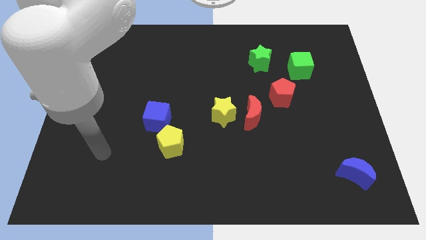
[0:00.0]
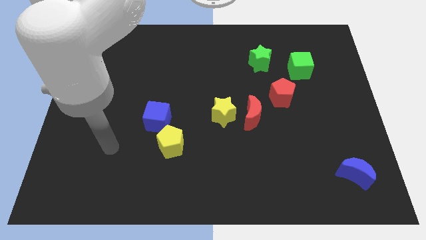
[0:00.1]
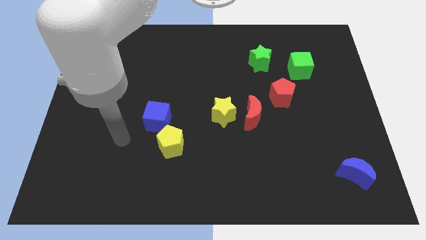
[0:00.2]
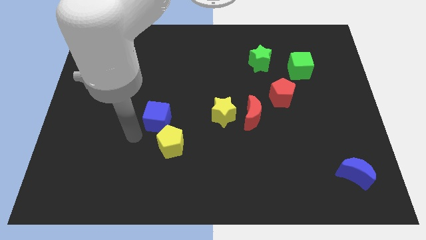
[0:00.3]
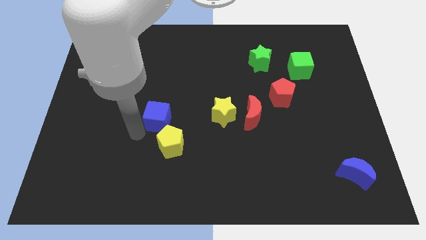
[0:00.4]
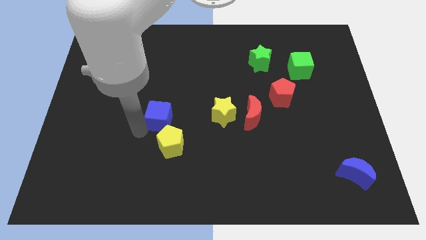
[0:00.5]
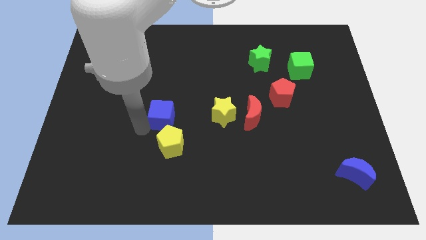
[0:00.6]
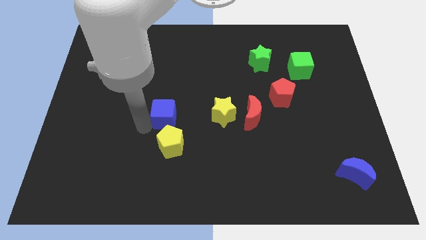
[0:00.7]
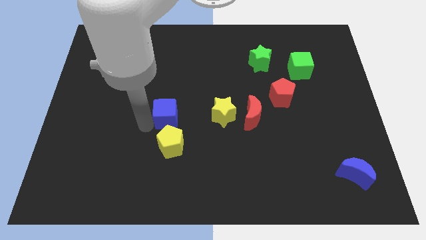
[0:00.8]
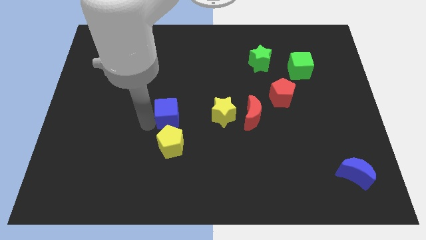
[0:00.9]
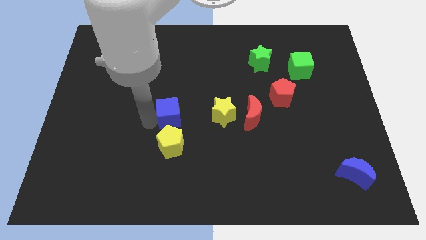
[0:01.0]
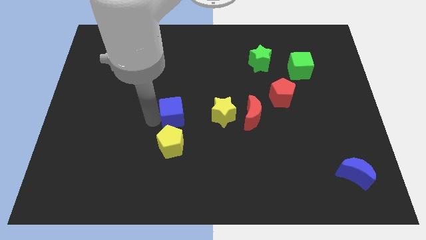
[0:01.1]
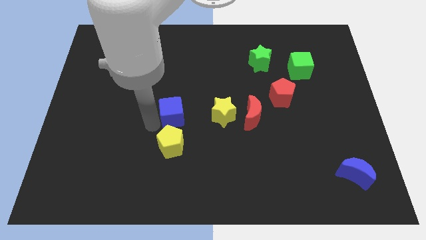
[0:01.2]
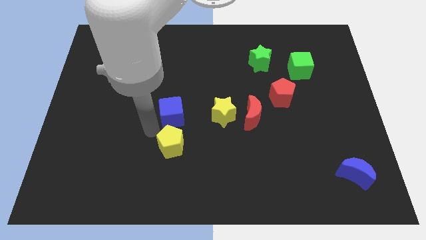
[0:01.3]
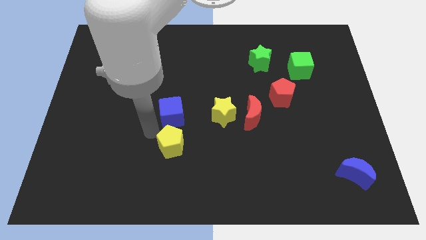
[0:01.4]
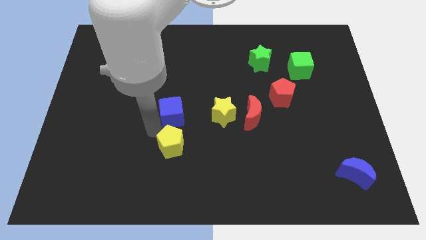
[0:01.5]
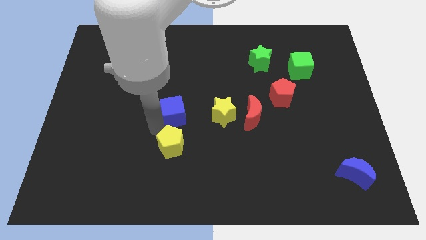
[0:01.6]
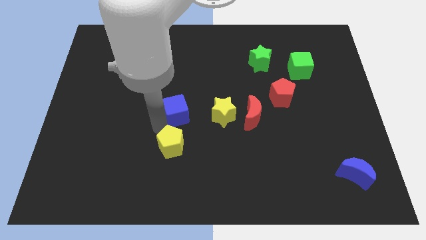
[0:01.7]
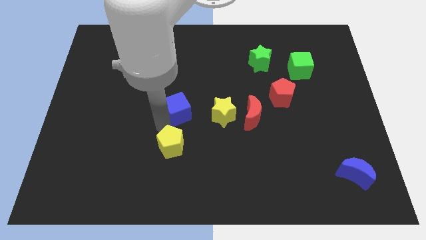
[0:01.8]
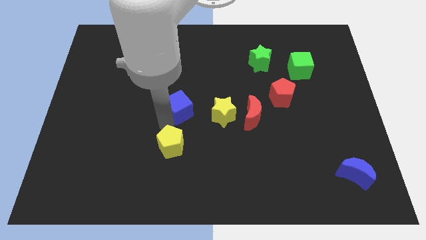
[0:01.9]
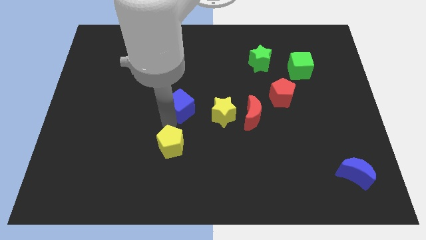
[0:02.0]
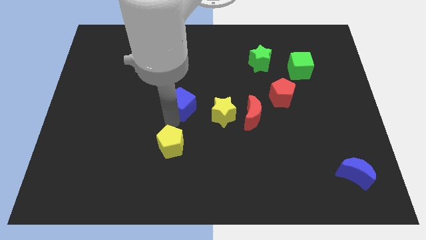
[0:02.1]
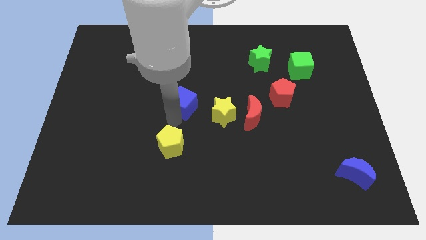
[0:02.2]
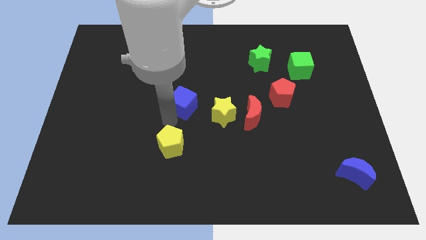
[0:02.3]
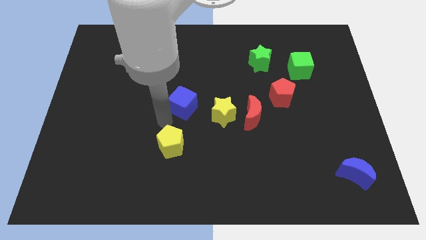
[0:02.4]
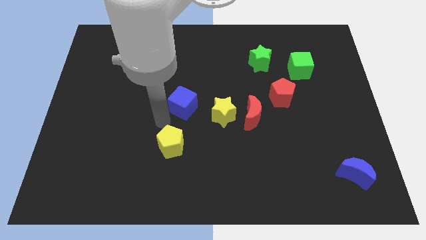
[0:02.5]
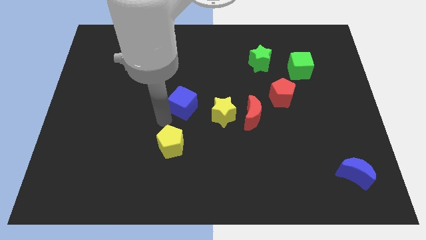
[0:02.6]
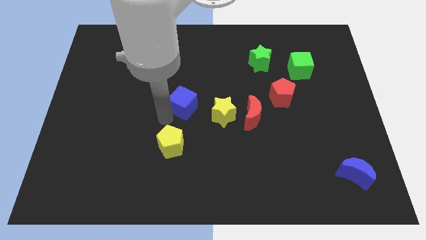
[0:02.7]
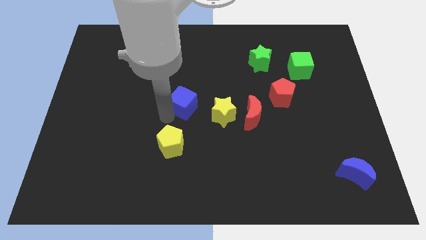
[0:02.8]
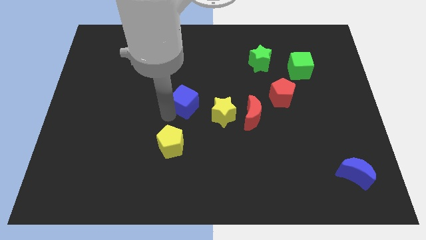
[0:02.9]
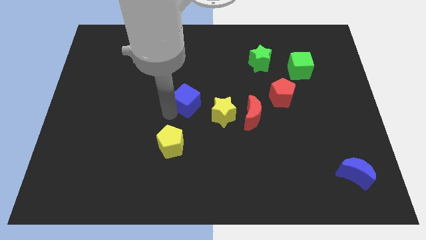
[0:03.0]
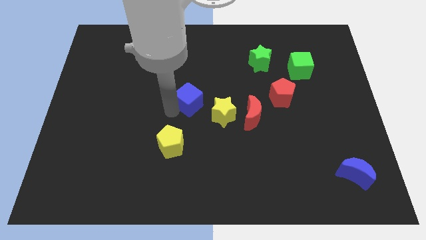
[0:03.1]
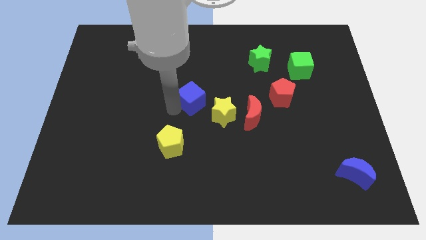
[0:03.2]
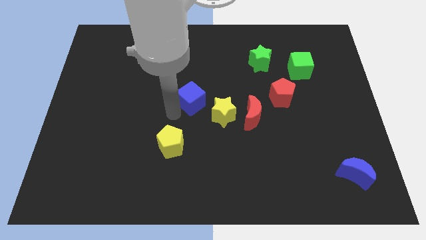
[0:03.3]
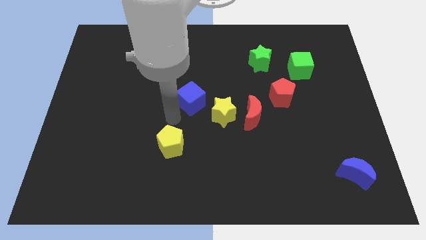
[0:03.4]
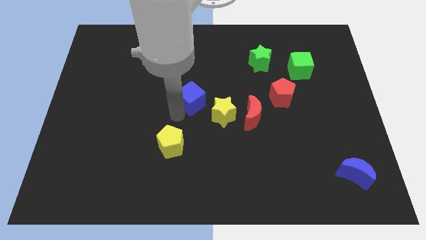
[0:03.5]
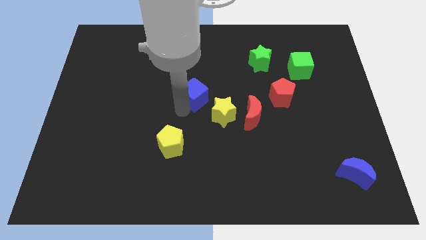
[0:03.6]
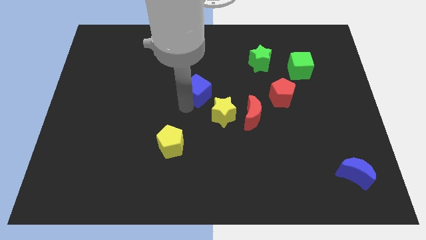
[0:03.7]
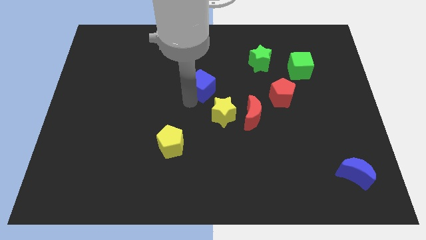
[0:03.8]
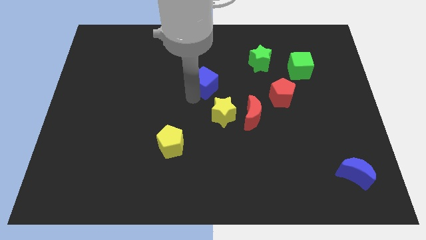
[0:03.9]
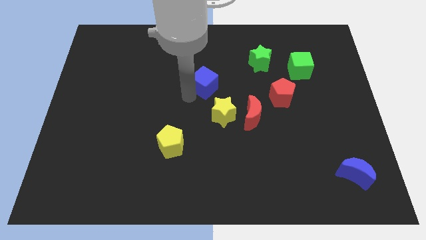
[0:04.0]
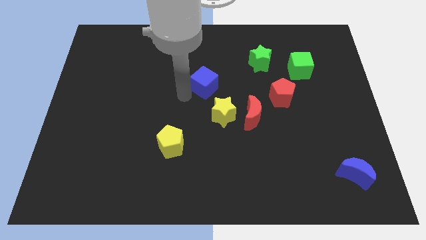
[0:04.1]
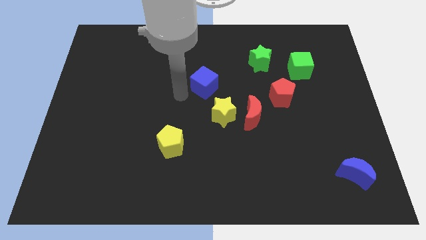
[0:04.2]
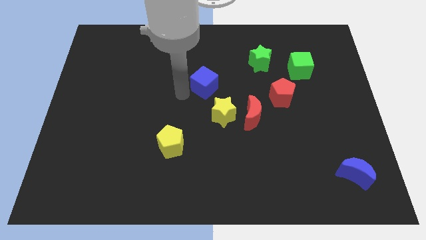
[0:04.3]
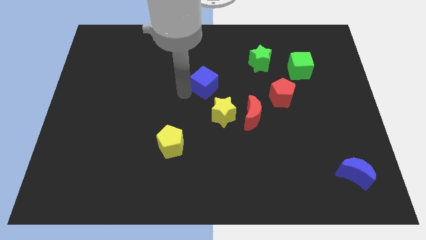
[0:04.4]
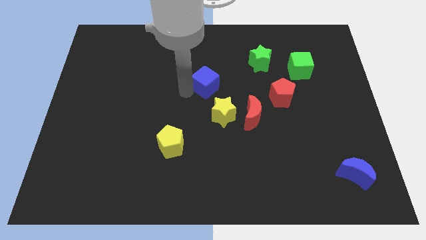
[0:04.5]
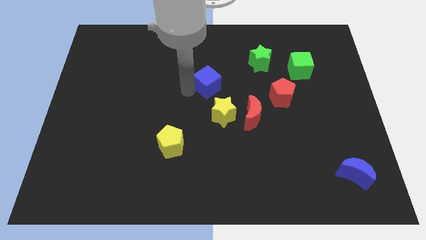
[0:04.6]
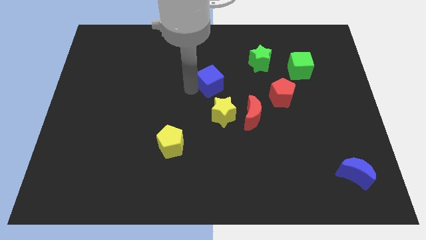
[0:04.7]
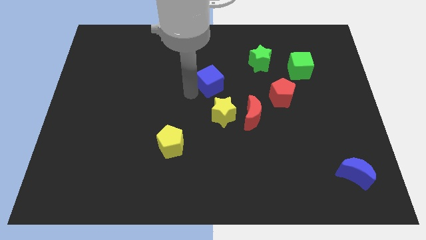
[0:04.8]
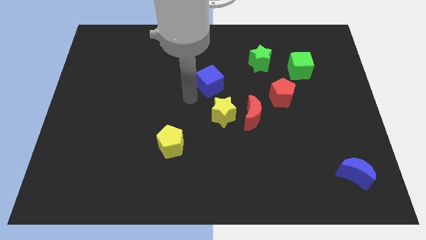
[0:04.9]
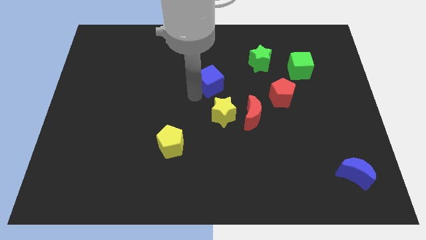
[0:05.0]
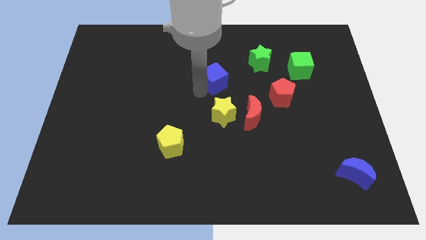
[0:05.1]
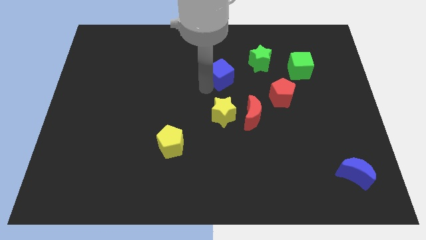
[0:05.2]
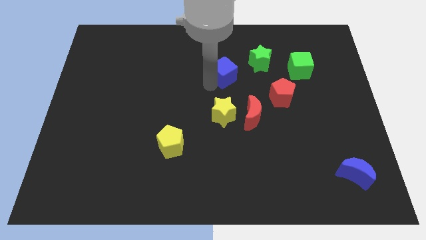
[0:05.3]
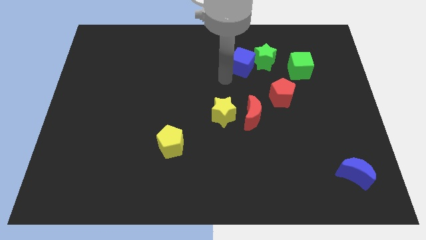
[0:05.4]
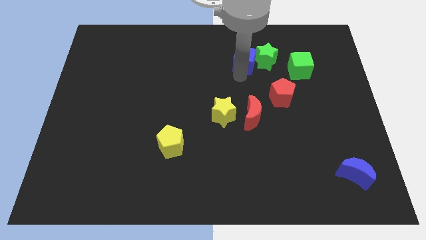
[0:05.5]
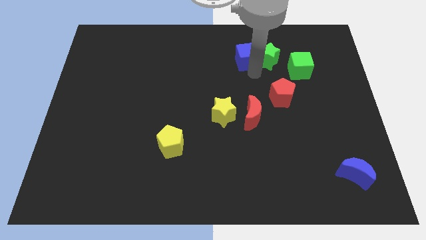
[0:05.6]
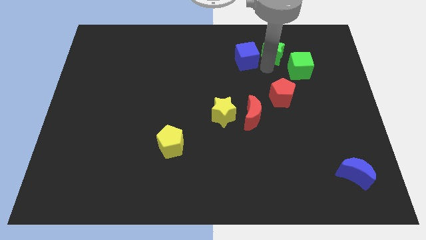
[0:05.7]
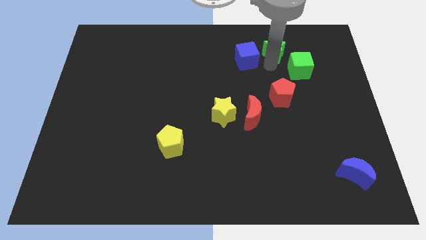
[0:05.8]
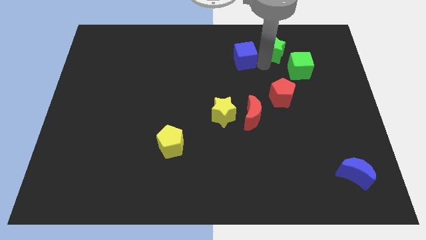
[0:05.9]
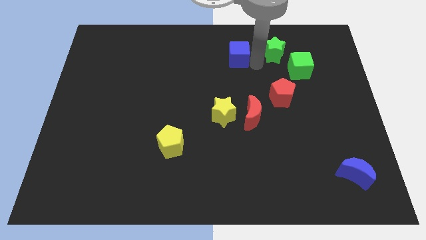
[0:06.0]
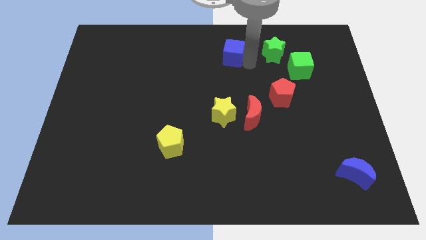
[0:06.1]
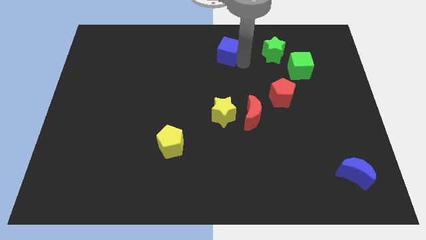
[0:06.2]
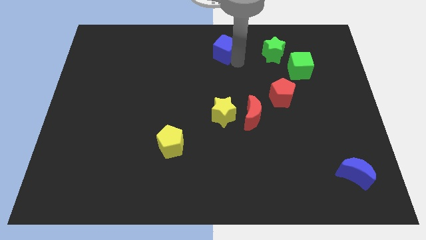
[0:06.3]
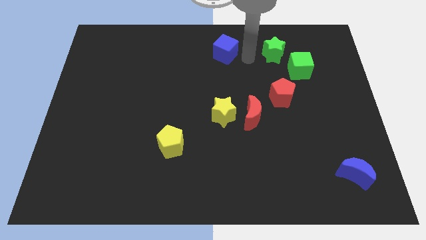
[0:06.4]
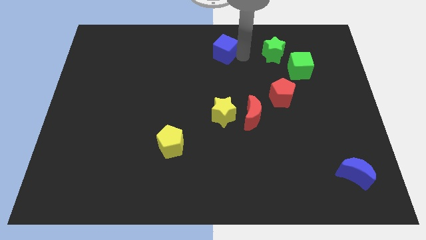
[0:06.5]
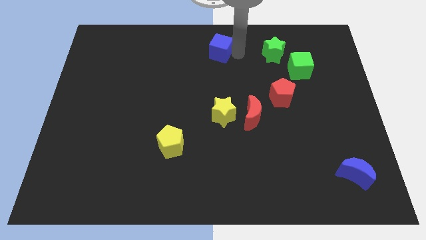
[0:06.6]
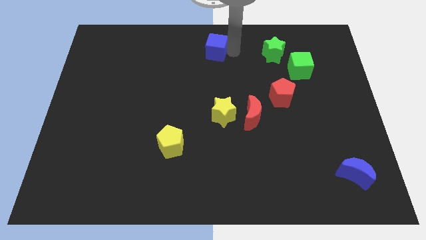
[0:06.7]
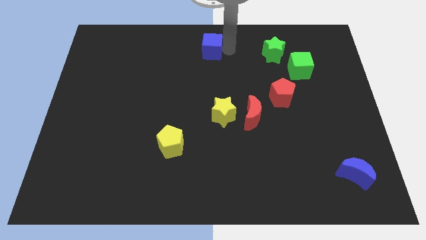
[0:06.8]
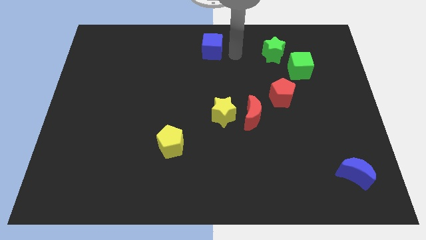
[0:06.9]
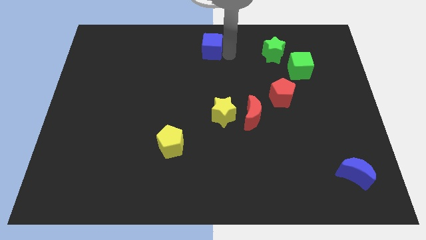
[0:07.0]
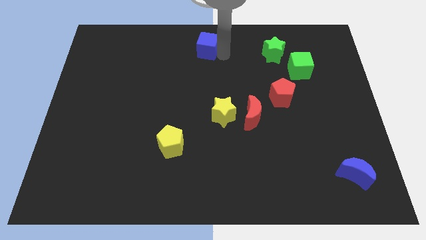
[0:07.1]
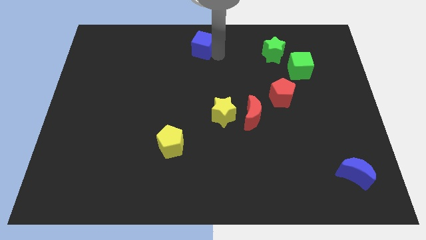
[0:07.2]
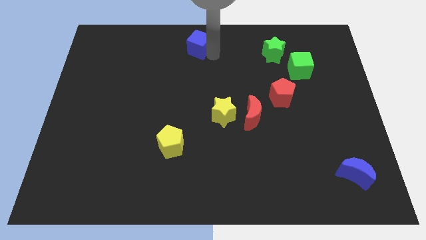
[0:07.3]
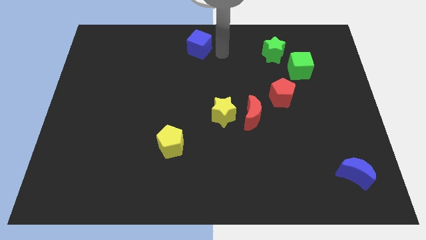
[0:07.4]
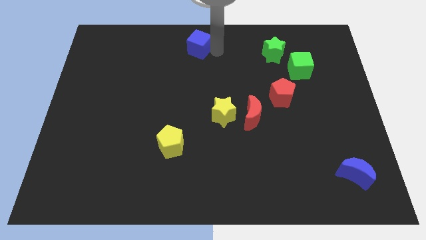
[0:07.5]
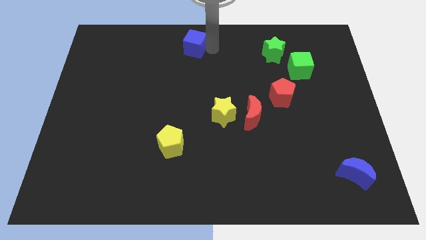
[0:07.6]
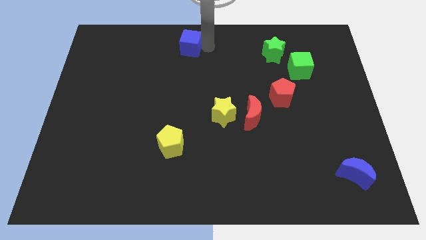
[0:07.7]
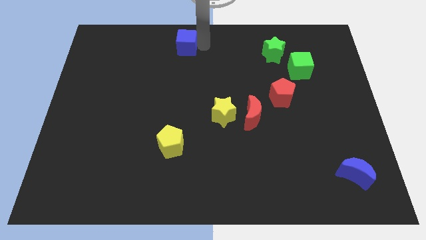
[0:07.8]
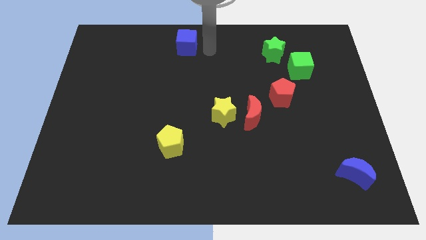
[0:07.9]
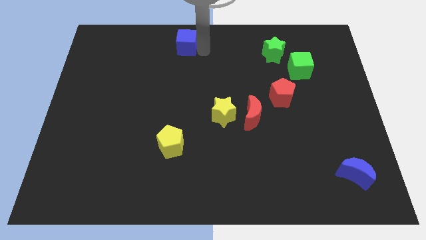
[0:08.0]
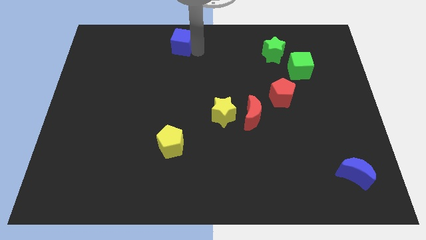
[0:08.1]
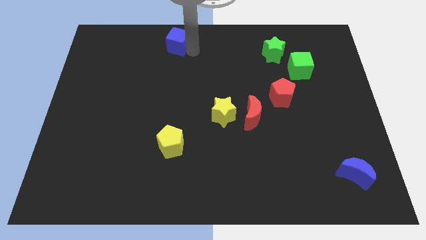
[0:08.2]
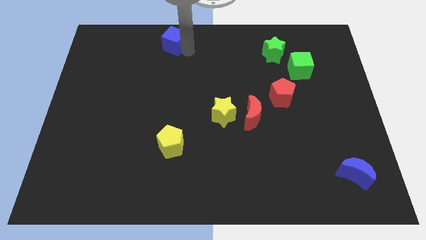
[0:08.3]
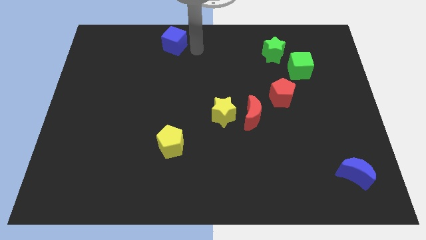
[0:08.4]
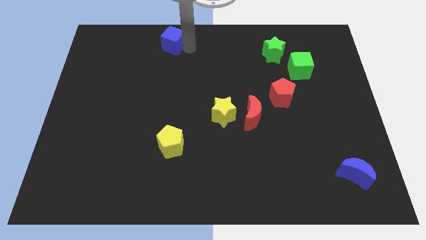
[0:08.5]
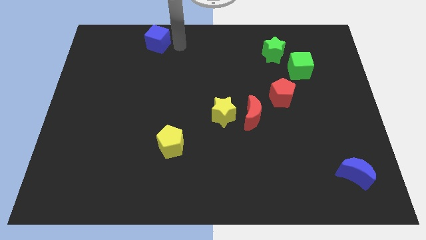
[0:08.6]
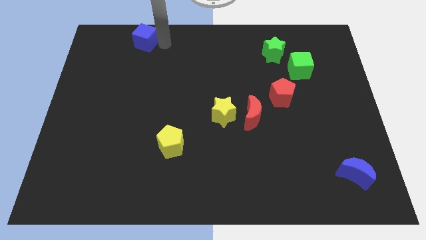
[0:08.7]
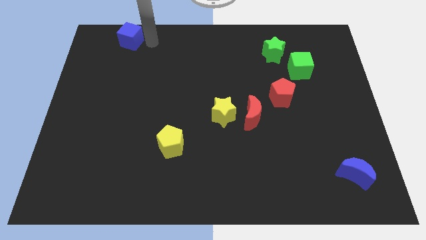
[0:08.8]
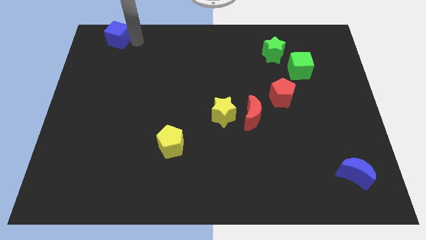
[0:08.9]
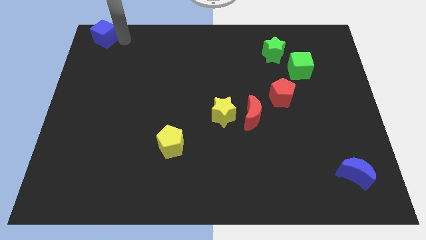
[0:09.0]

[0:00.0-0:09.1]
put the blue cube to the top left of the board
